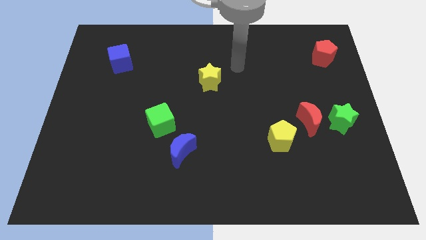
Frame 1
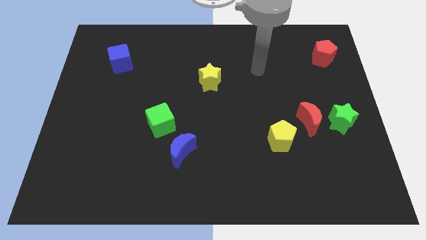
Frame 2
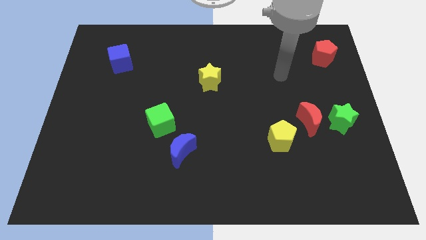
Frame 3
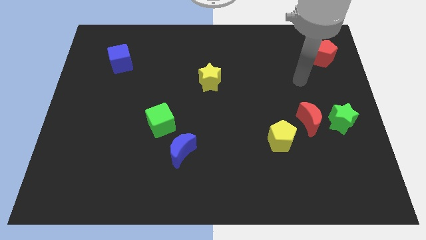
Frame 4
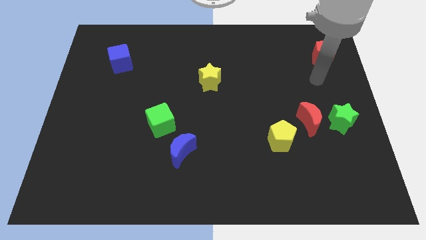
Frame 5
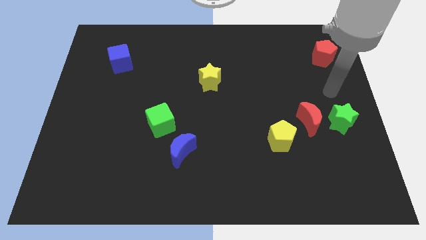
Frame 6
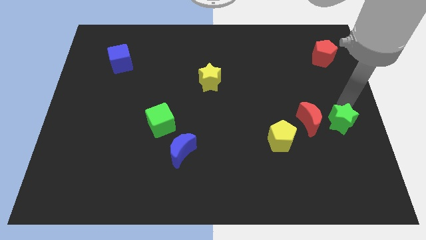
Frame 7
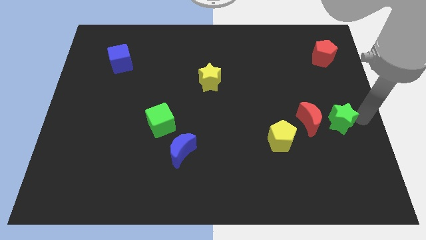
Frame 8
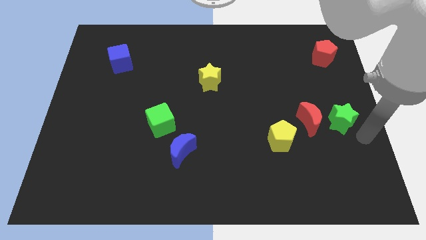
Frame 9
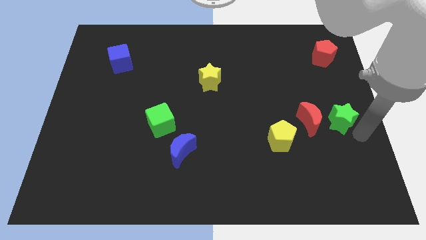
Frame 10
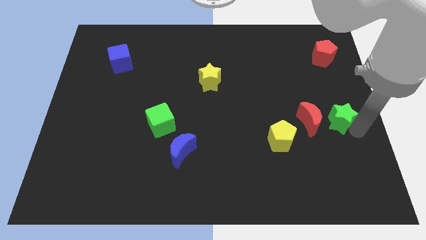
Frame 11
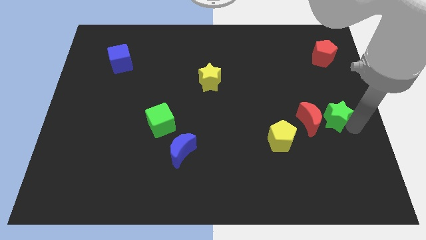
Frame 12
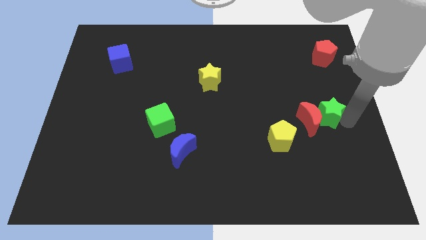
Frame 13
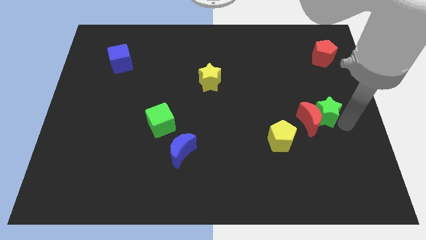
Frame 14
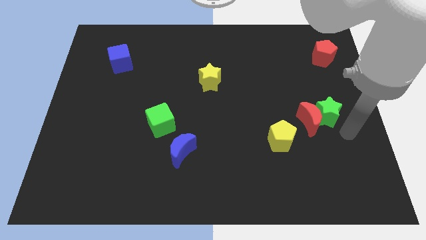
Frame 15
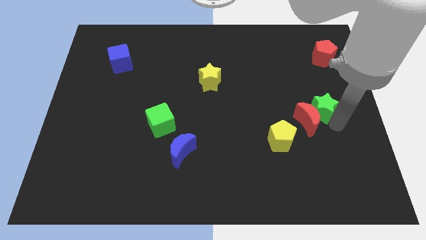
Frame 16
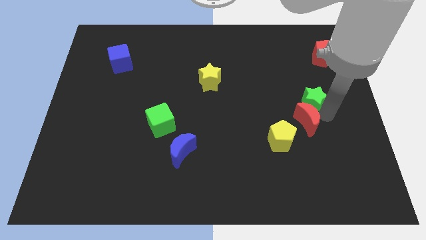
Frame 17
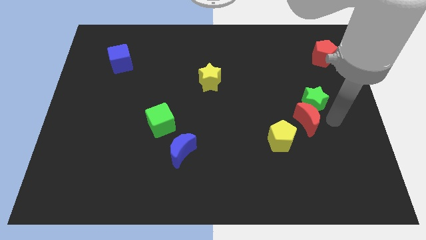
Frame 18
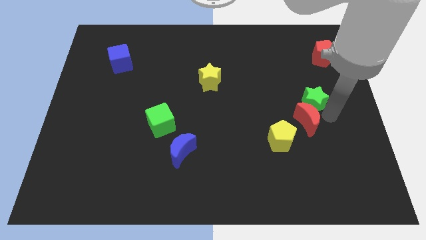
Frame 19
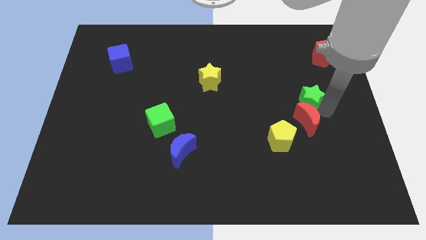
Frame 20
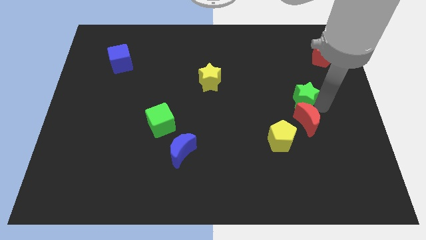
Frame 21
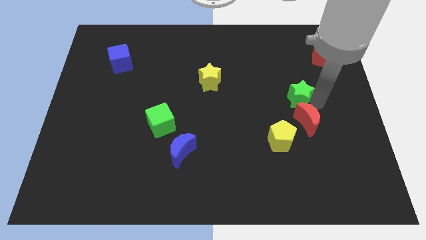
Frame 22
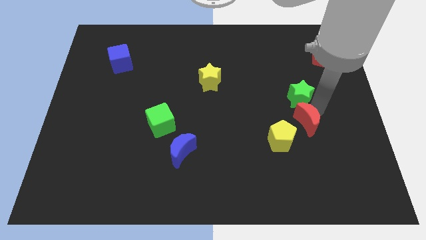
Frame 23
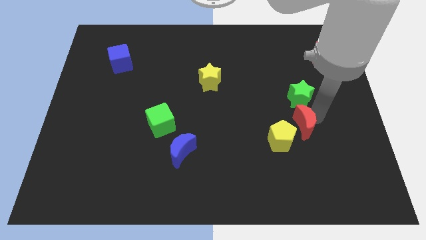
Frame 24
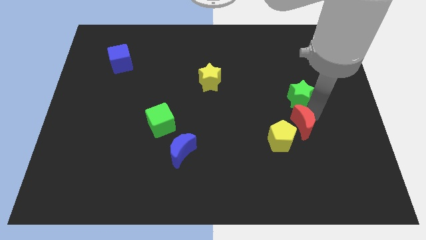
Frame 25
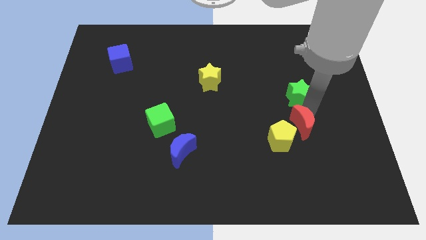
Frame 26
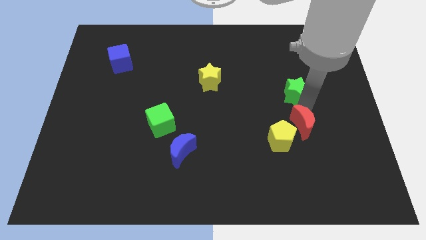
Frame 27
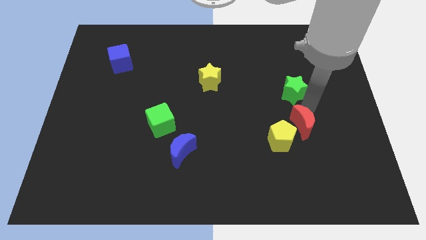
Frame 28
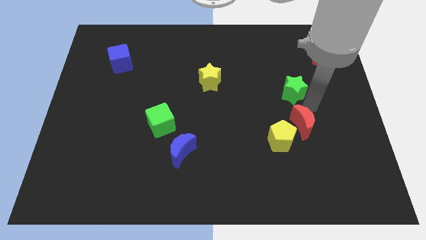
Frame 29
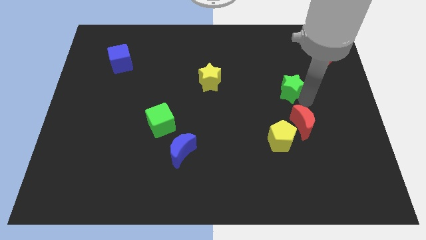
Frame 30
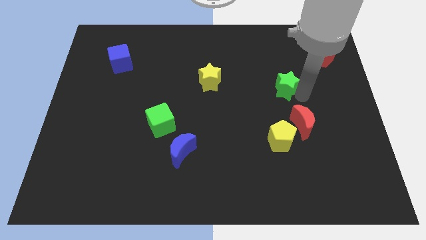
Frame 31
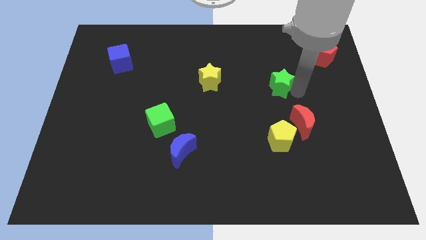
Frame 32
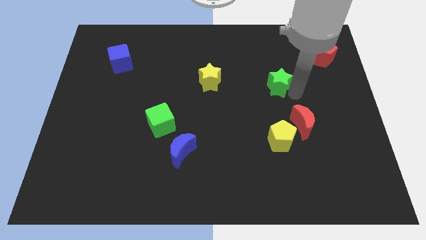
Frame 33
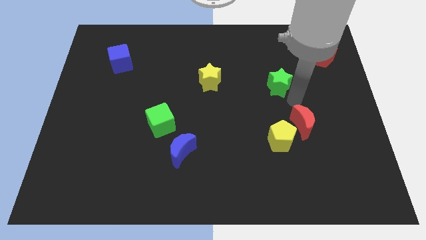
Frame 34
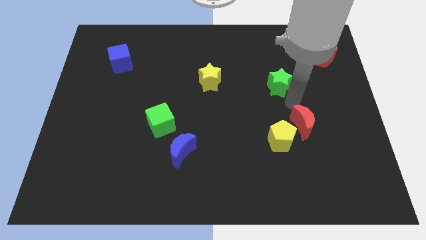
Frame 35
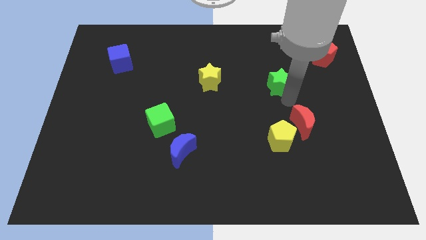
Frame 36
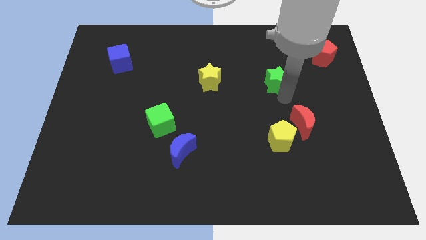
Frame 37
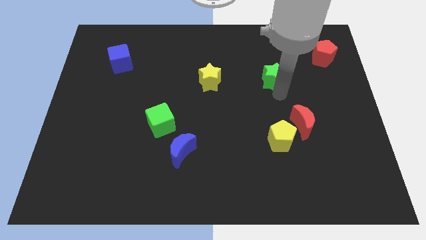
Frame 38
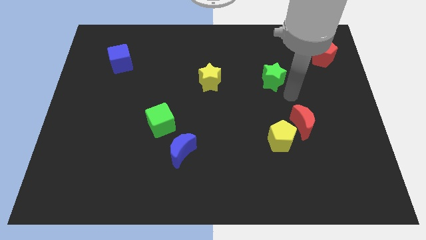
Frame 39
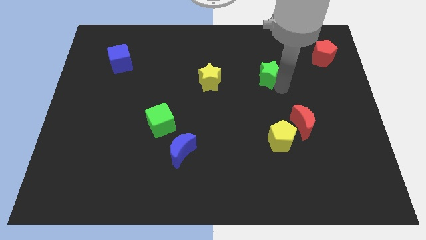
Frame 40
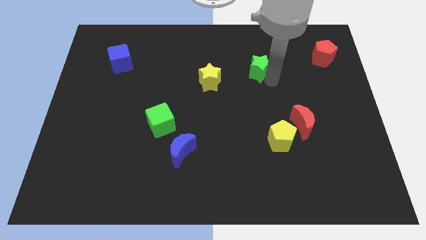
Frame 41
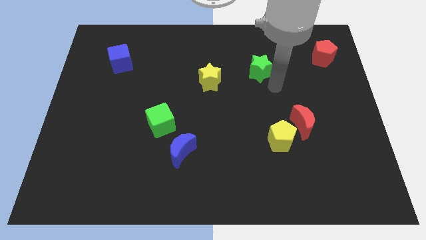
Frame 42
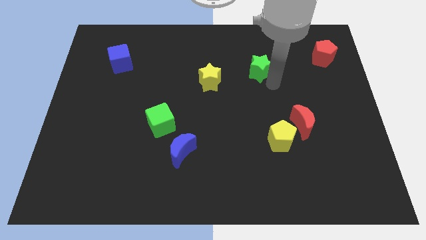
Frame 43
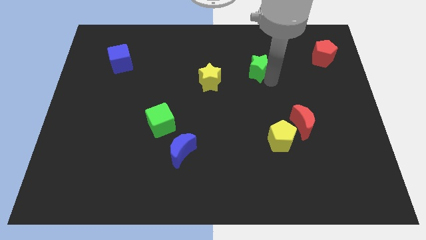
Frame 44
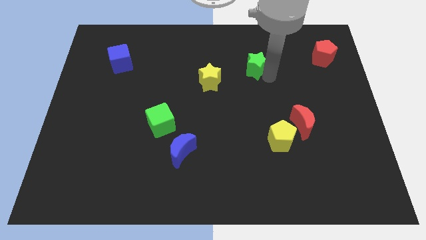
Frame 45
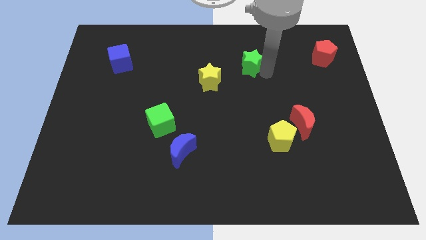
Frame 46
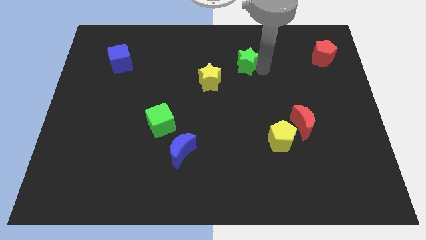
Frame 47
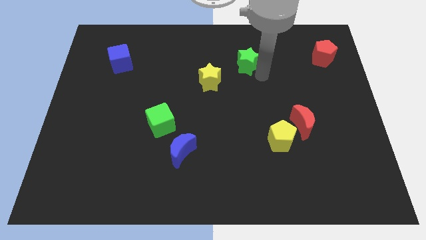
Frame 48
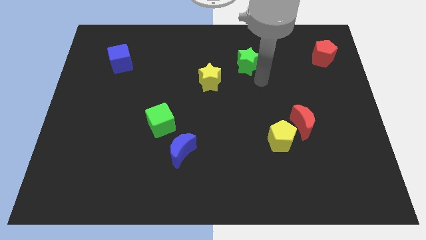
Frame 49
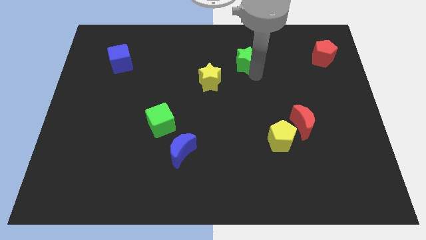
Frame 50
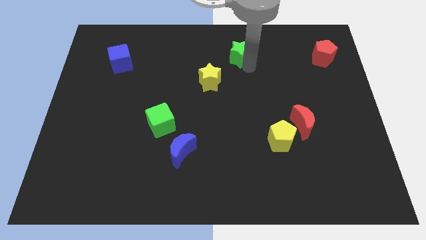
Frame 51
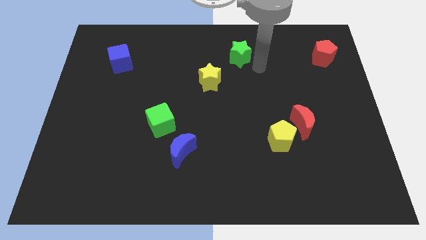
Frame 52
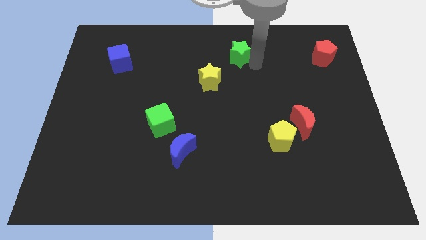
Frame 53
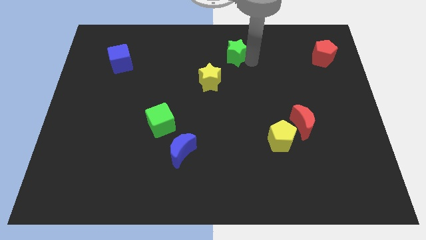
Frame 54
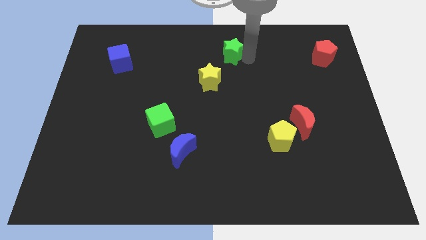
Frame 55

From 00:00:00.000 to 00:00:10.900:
move the green star to the towards your base

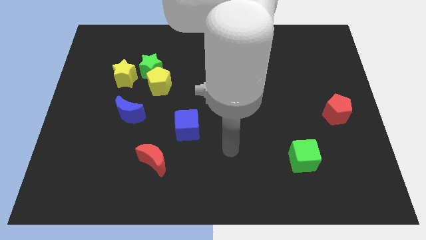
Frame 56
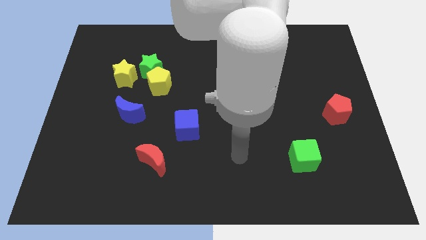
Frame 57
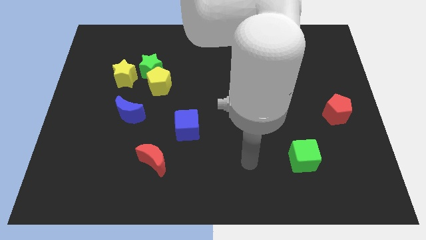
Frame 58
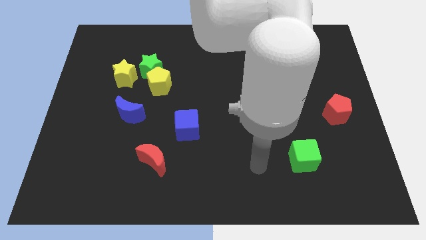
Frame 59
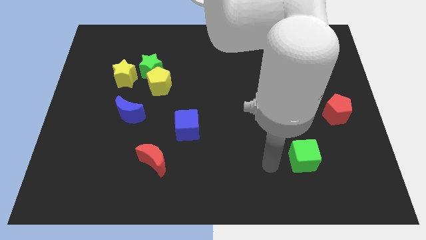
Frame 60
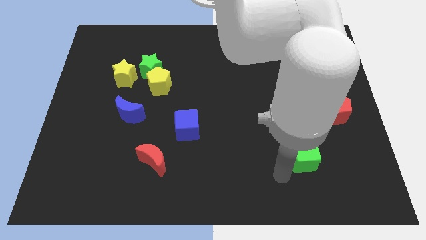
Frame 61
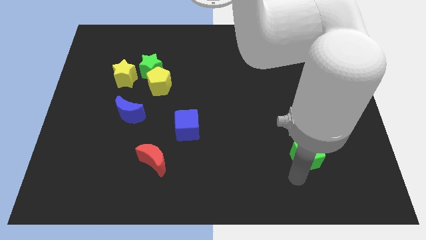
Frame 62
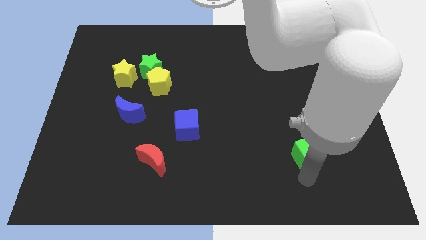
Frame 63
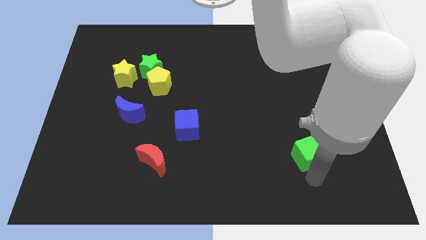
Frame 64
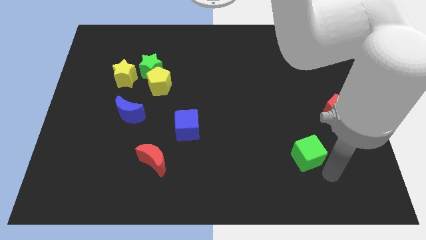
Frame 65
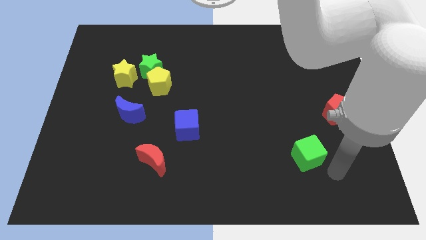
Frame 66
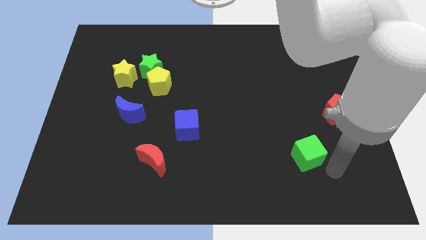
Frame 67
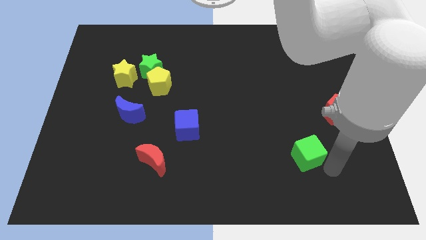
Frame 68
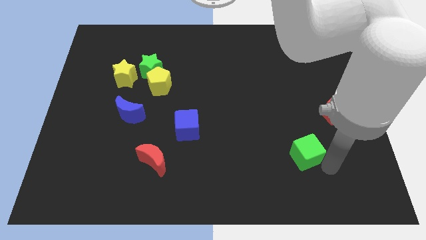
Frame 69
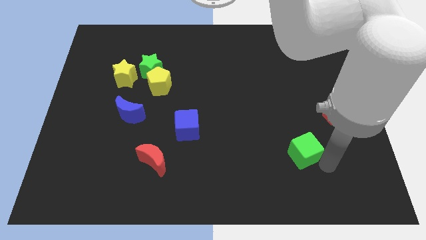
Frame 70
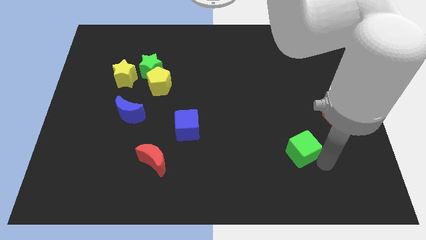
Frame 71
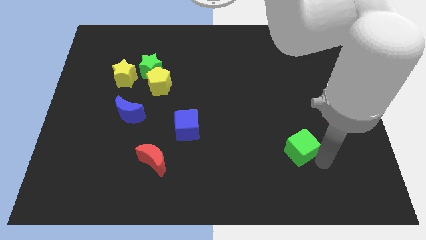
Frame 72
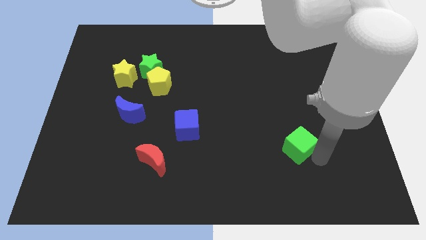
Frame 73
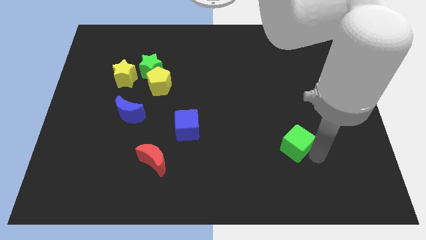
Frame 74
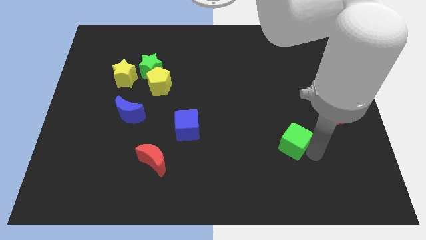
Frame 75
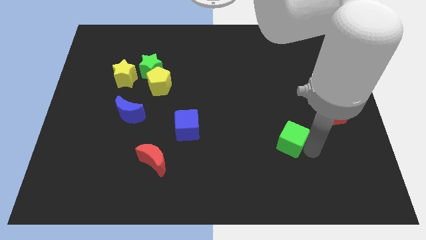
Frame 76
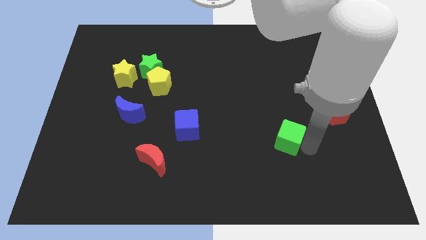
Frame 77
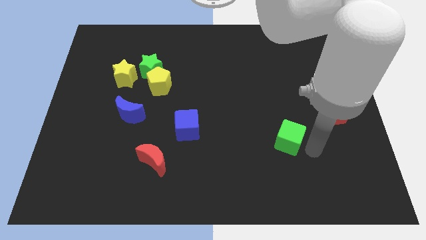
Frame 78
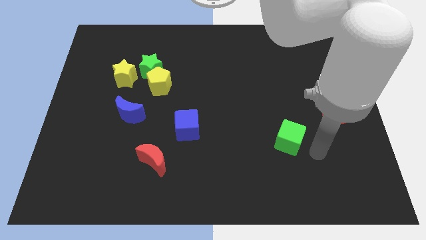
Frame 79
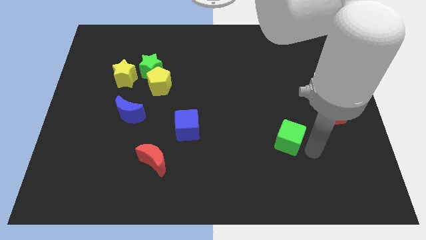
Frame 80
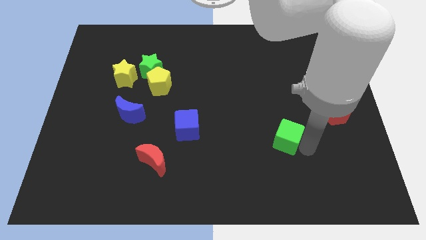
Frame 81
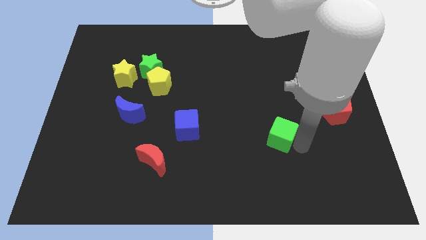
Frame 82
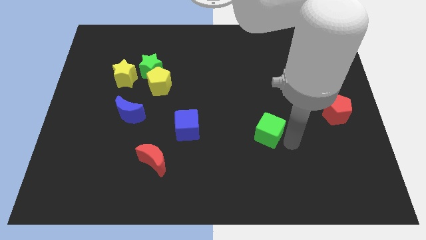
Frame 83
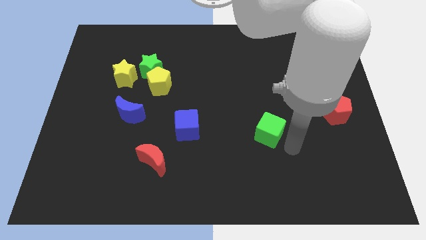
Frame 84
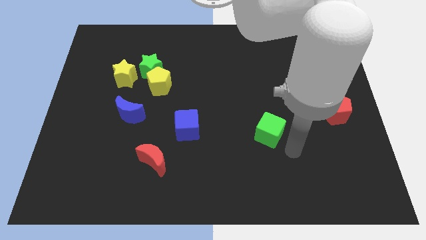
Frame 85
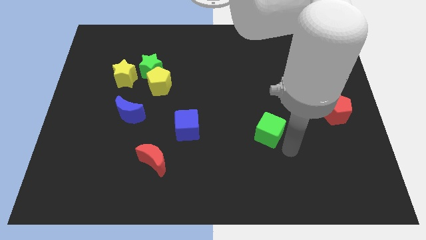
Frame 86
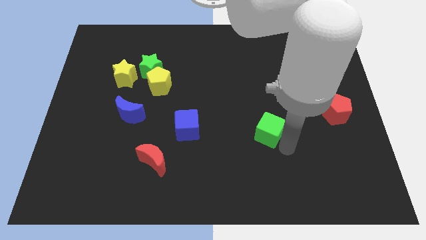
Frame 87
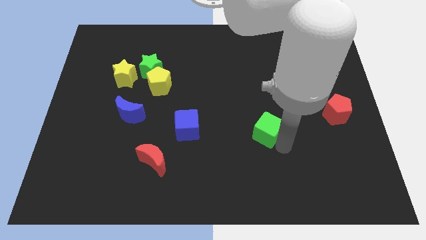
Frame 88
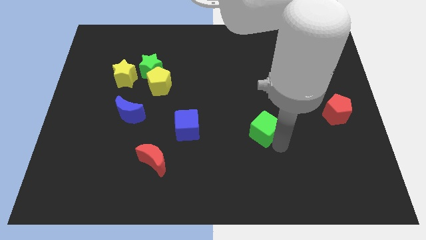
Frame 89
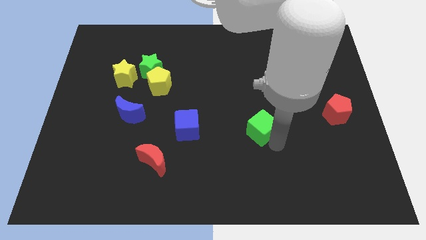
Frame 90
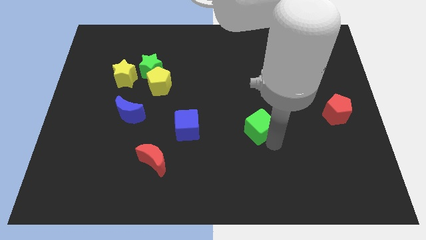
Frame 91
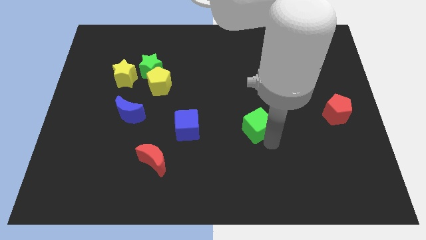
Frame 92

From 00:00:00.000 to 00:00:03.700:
push the green cube to the middle
